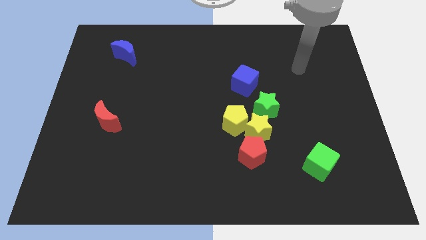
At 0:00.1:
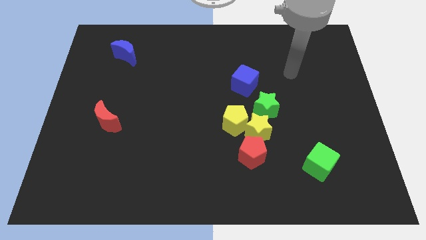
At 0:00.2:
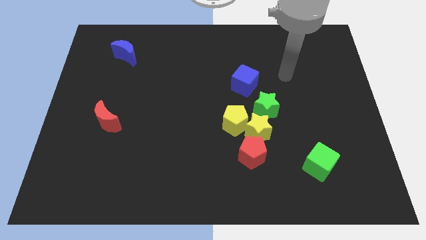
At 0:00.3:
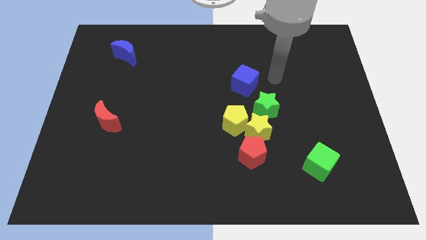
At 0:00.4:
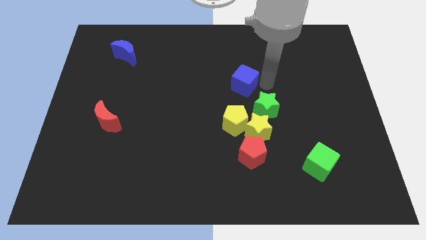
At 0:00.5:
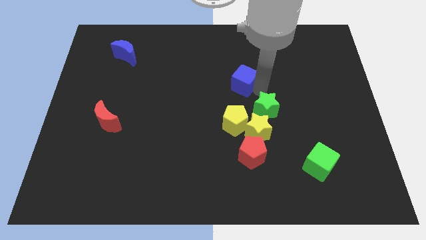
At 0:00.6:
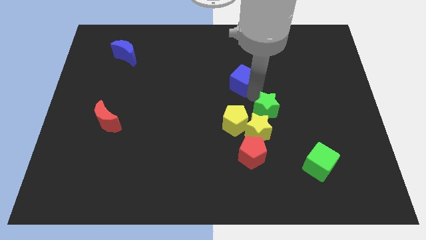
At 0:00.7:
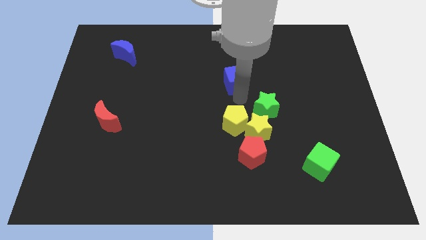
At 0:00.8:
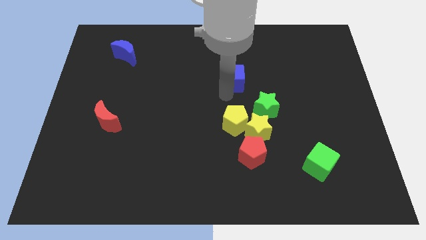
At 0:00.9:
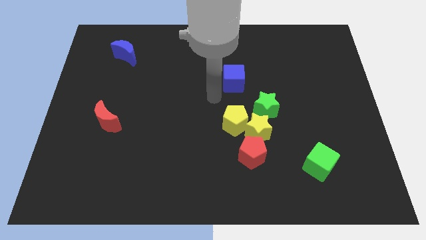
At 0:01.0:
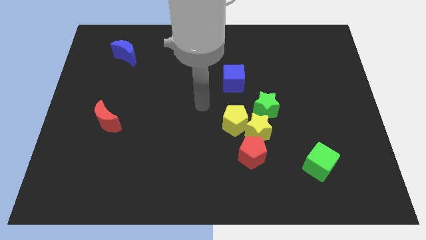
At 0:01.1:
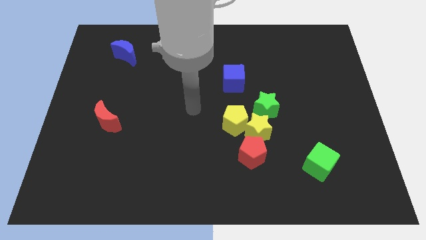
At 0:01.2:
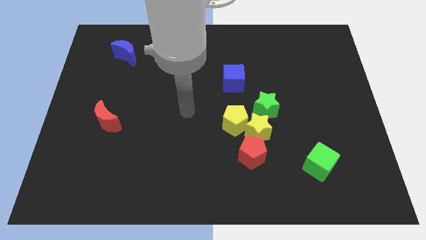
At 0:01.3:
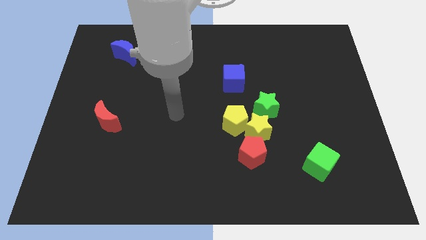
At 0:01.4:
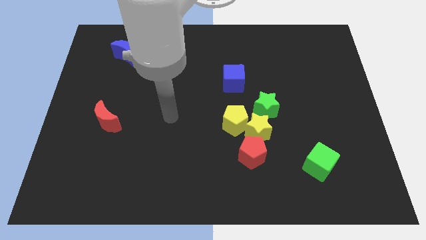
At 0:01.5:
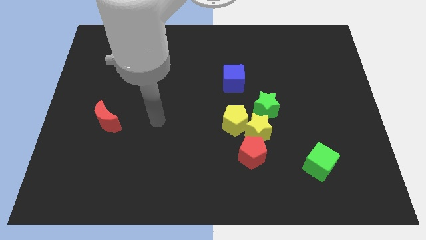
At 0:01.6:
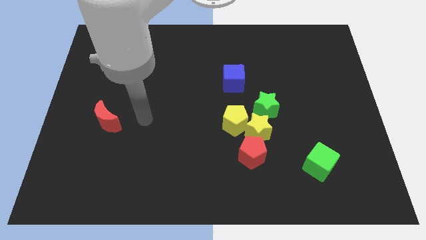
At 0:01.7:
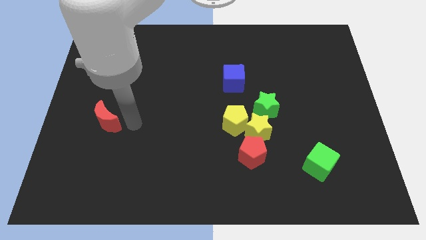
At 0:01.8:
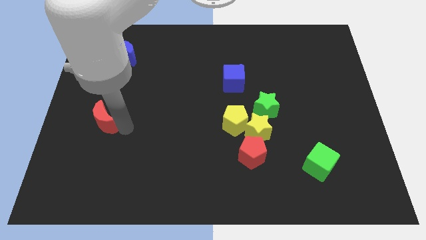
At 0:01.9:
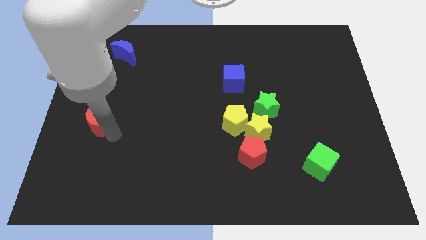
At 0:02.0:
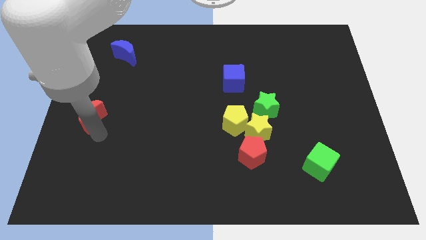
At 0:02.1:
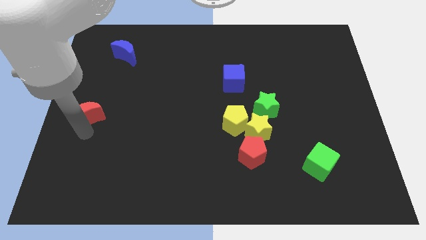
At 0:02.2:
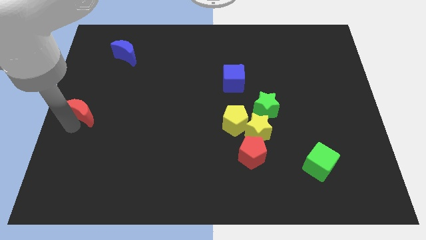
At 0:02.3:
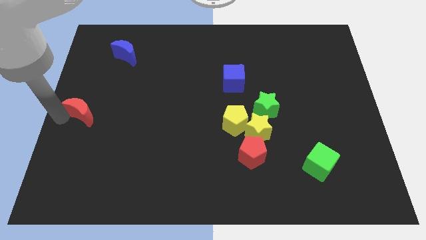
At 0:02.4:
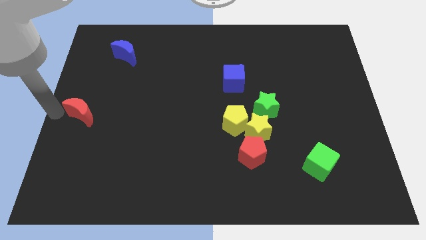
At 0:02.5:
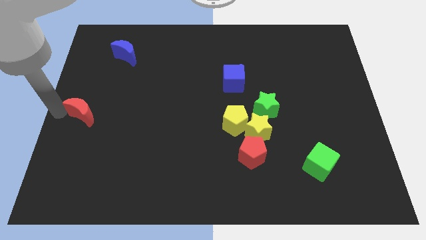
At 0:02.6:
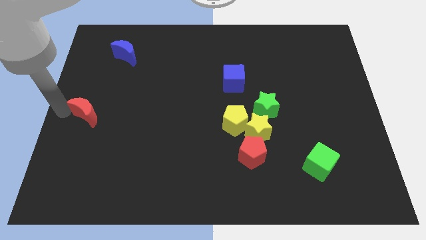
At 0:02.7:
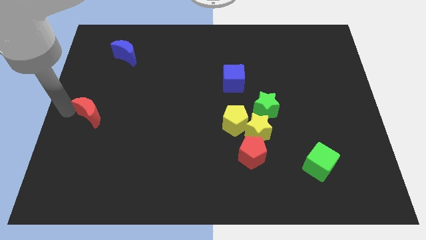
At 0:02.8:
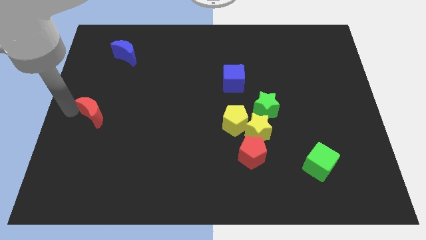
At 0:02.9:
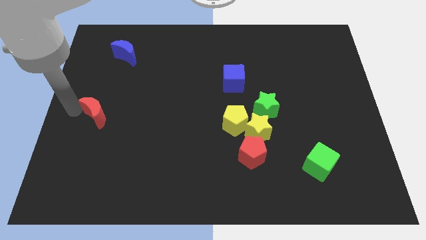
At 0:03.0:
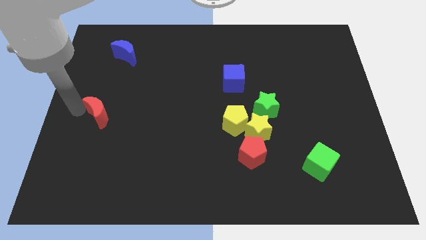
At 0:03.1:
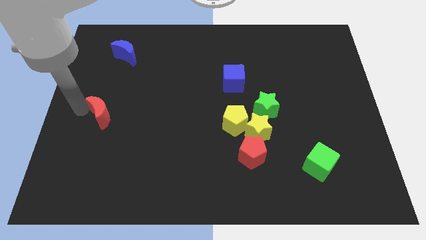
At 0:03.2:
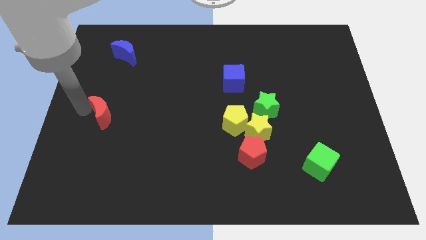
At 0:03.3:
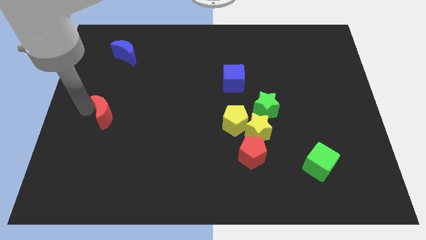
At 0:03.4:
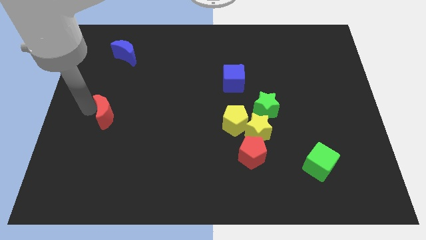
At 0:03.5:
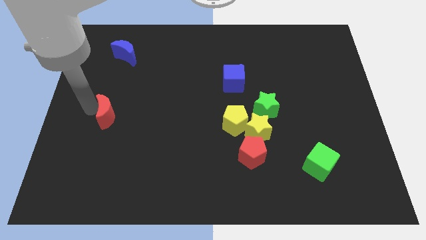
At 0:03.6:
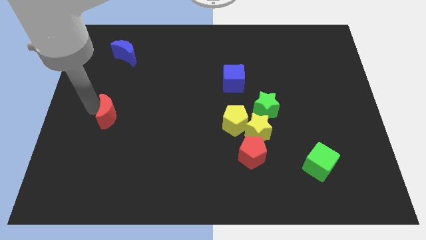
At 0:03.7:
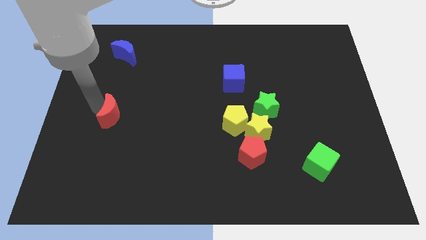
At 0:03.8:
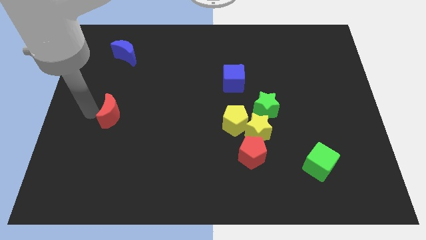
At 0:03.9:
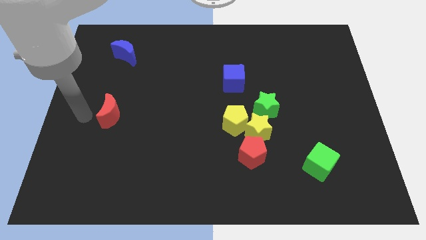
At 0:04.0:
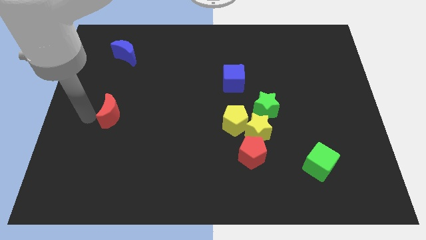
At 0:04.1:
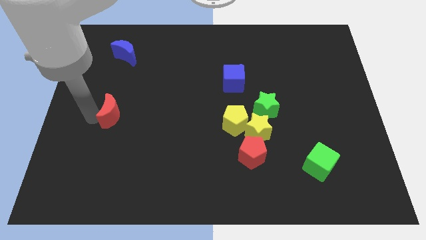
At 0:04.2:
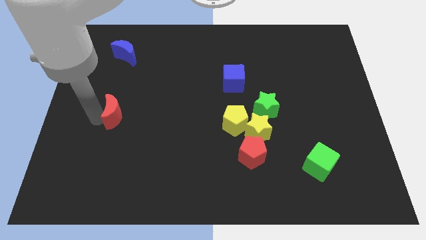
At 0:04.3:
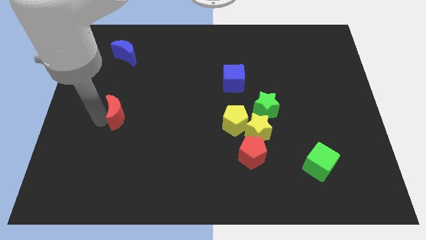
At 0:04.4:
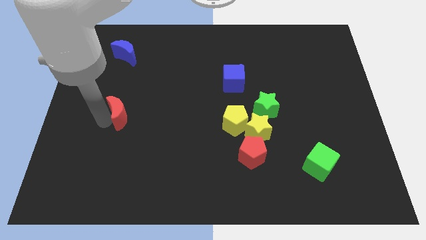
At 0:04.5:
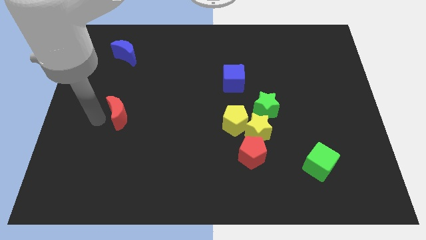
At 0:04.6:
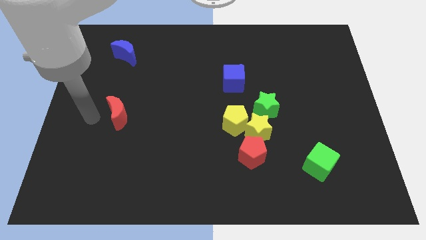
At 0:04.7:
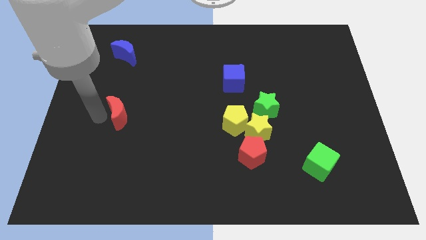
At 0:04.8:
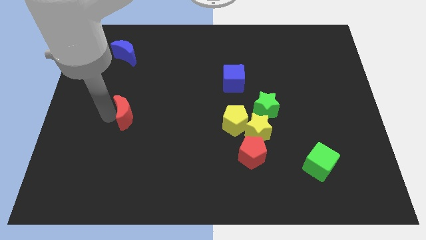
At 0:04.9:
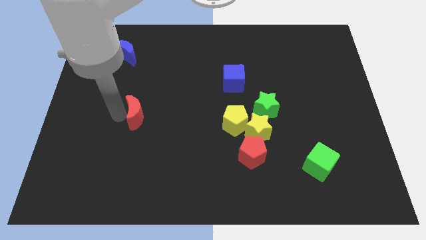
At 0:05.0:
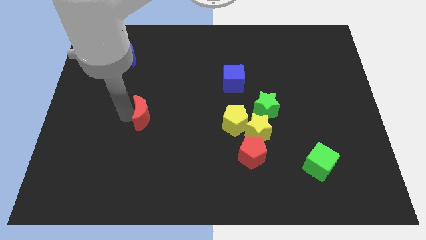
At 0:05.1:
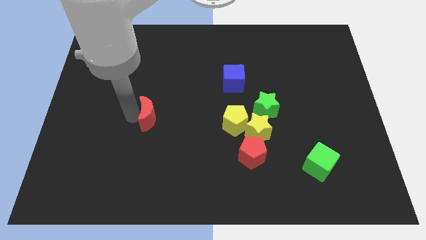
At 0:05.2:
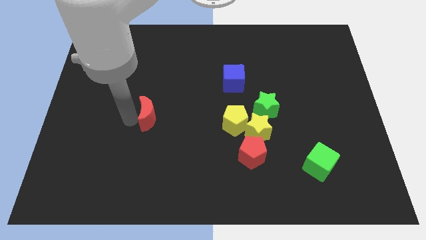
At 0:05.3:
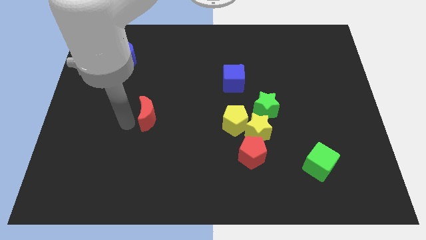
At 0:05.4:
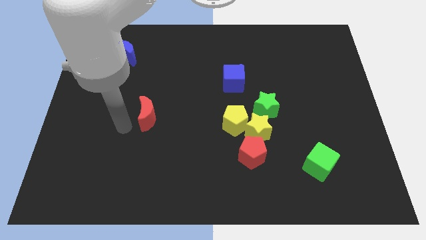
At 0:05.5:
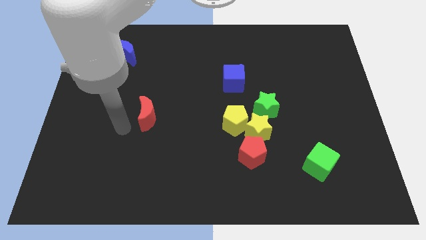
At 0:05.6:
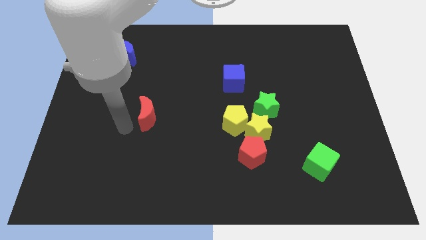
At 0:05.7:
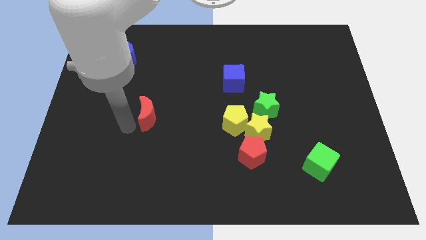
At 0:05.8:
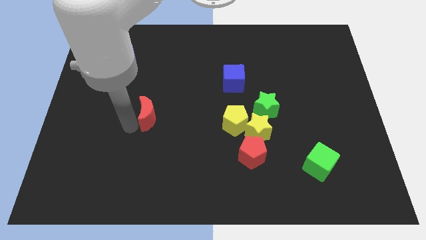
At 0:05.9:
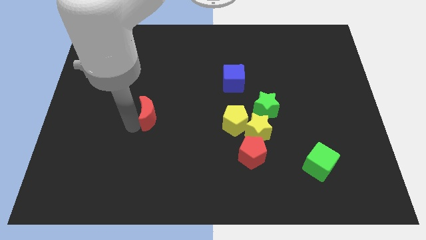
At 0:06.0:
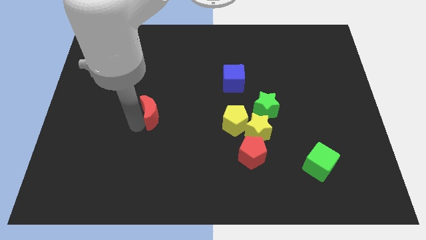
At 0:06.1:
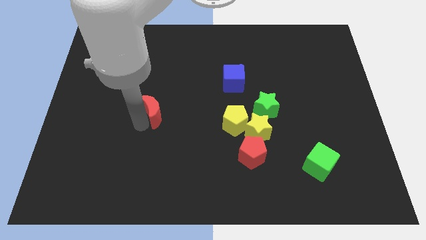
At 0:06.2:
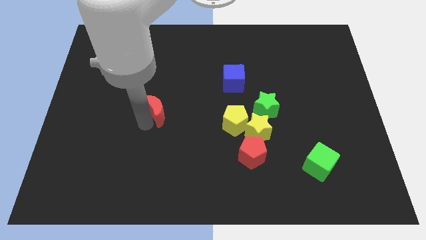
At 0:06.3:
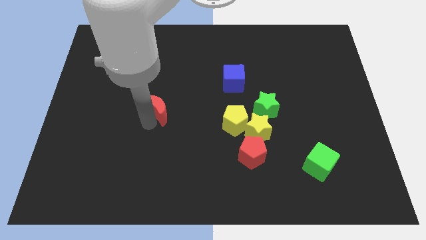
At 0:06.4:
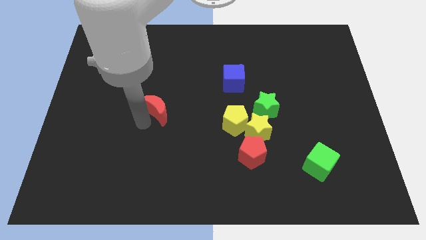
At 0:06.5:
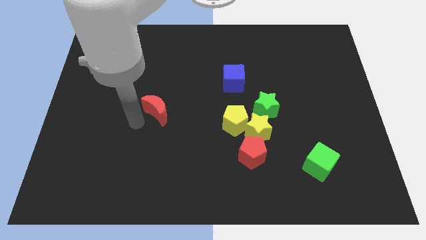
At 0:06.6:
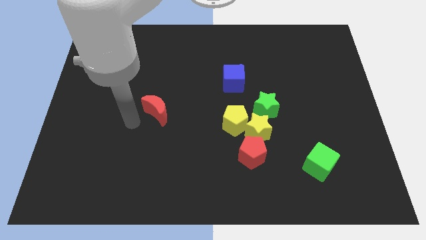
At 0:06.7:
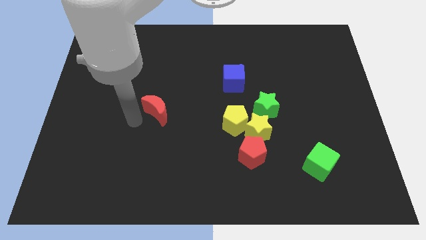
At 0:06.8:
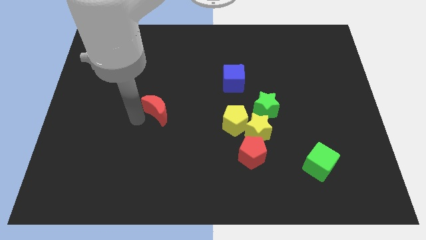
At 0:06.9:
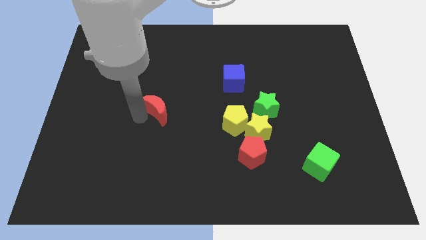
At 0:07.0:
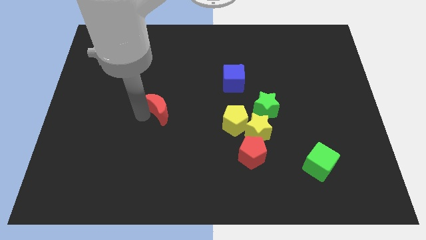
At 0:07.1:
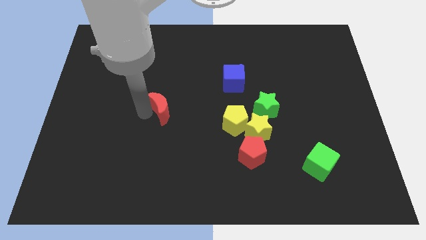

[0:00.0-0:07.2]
push the red moon to the middle

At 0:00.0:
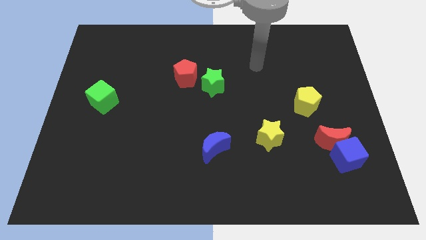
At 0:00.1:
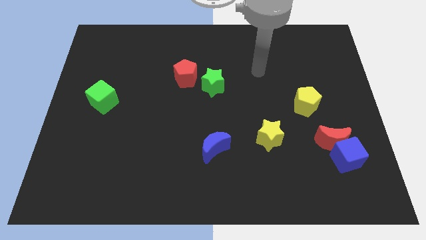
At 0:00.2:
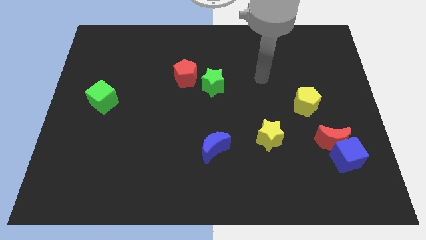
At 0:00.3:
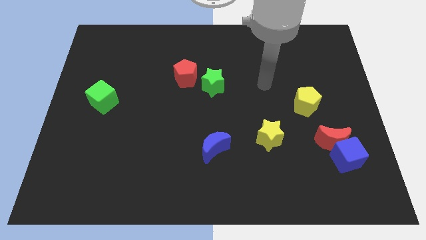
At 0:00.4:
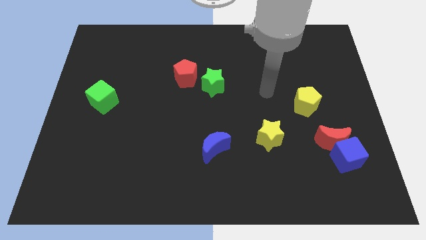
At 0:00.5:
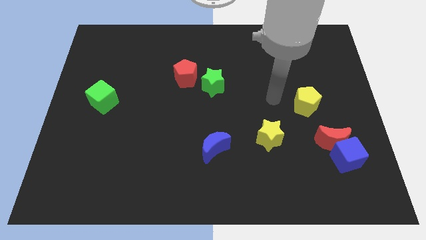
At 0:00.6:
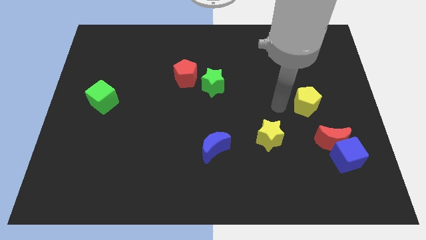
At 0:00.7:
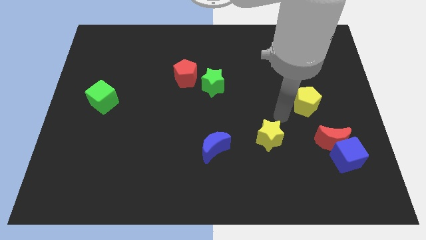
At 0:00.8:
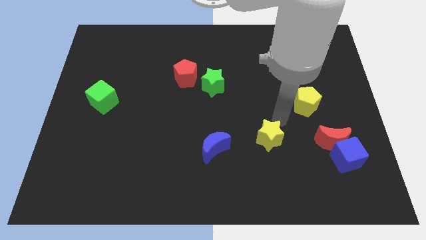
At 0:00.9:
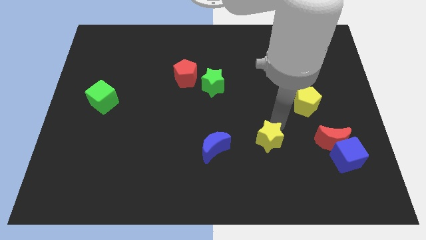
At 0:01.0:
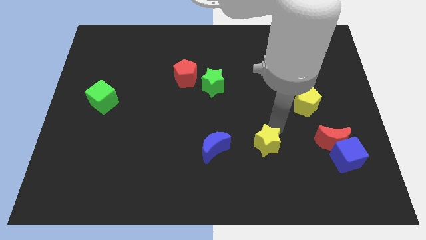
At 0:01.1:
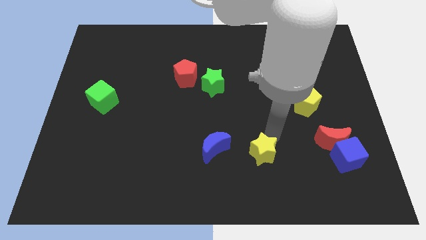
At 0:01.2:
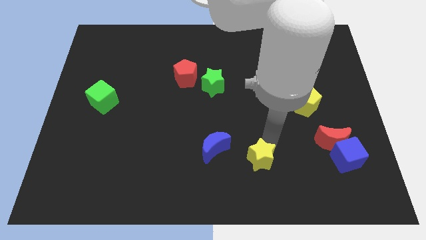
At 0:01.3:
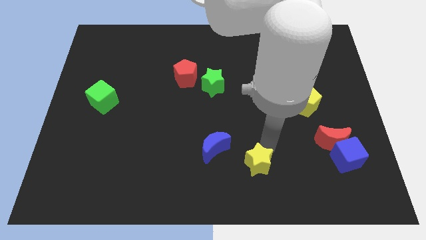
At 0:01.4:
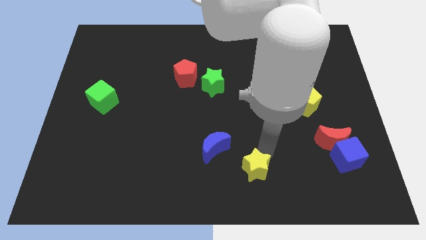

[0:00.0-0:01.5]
put the yellow star to the bottom
